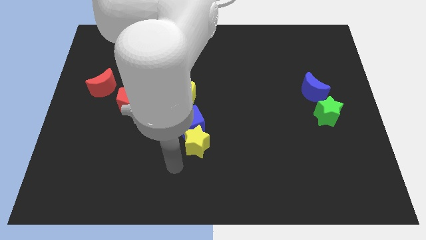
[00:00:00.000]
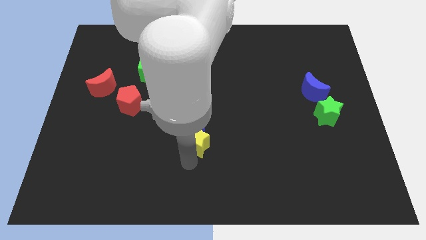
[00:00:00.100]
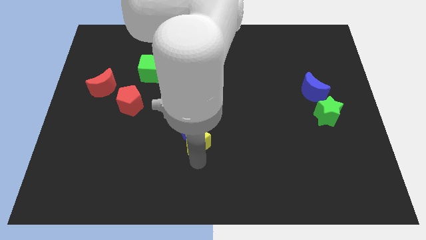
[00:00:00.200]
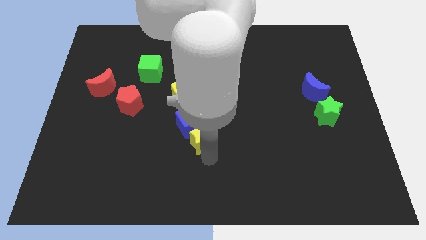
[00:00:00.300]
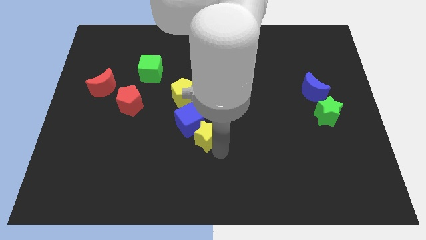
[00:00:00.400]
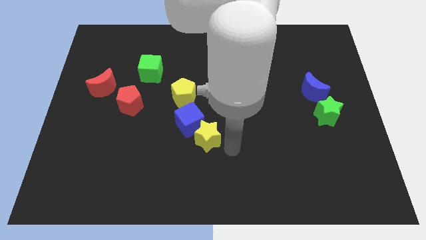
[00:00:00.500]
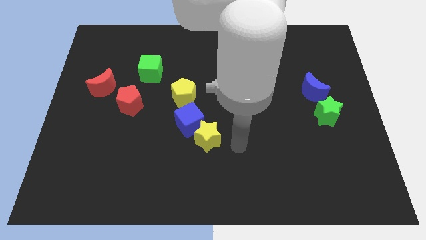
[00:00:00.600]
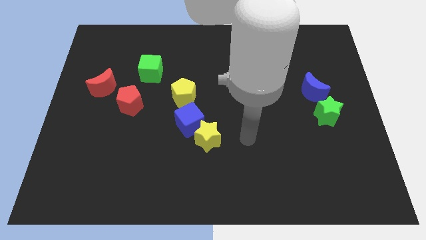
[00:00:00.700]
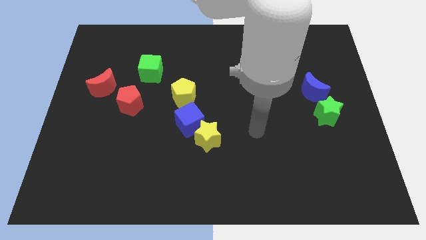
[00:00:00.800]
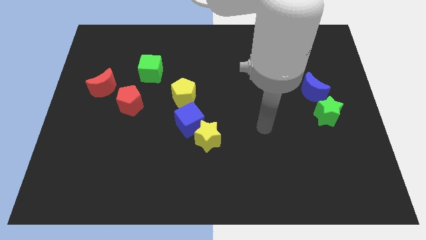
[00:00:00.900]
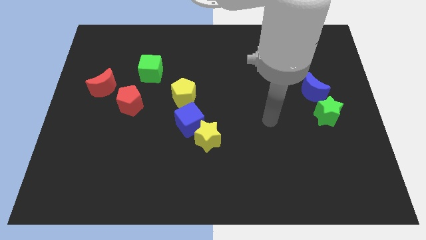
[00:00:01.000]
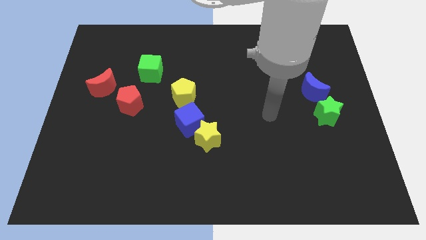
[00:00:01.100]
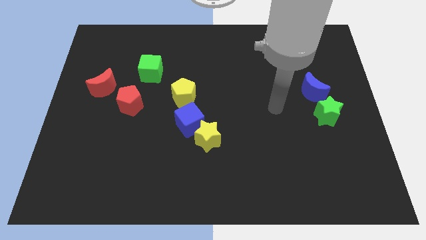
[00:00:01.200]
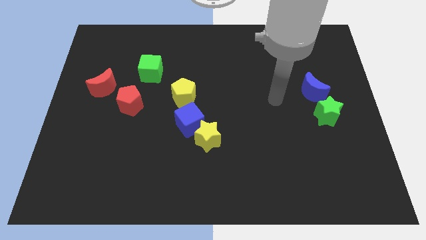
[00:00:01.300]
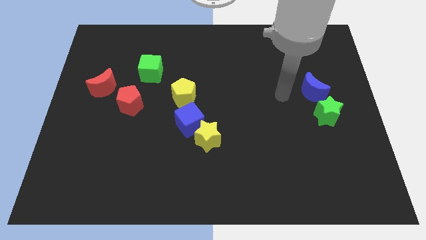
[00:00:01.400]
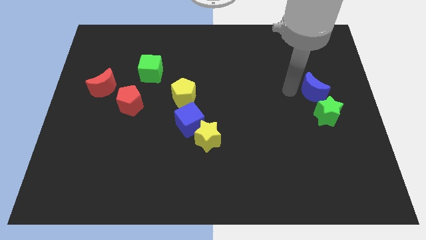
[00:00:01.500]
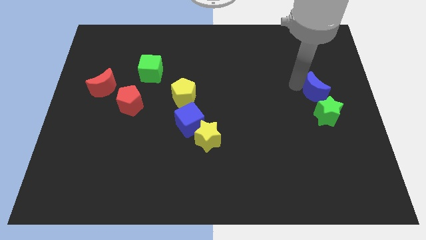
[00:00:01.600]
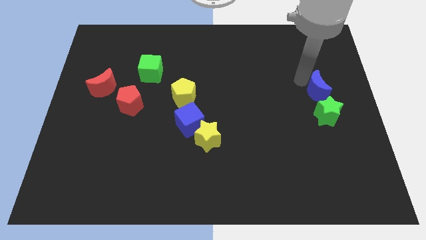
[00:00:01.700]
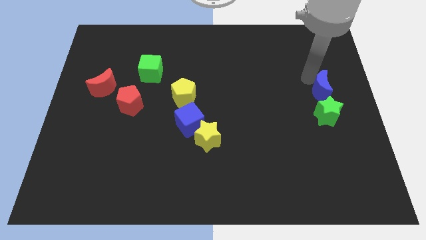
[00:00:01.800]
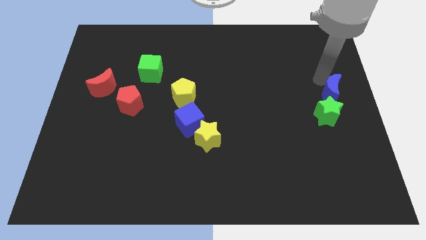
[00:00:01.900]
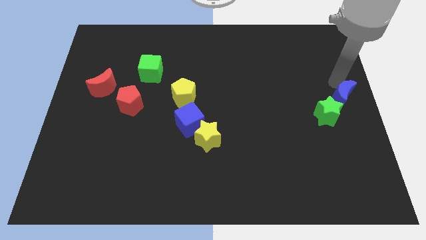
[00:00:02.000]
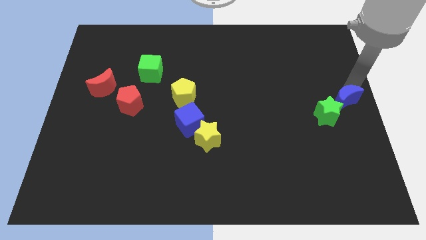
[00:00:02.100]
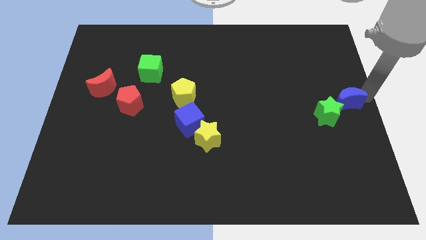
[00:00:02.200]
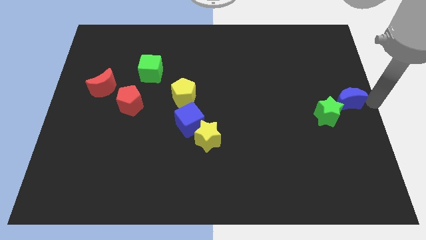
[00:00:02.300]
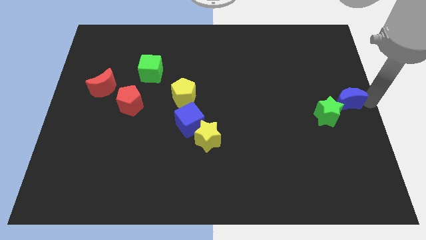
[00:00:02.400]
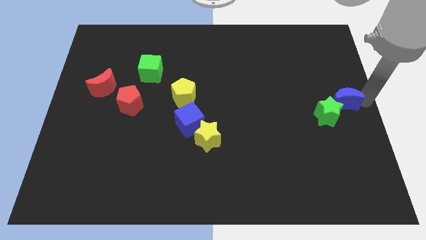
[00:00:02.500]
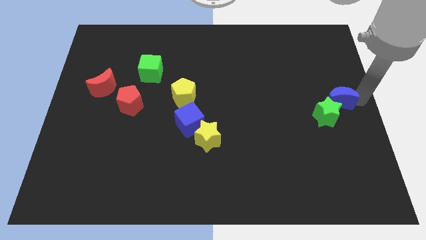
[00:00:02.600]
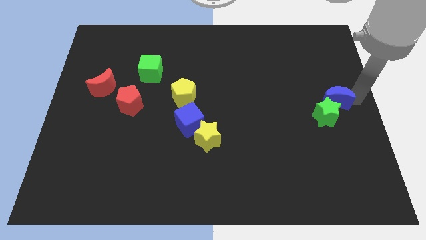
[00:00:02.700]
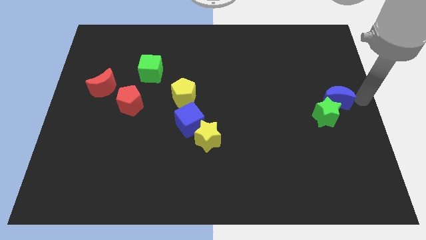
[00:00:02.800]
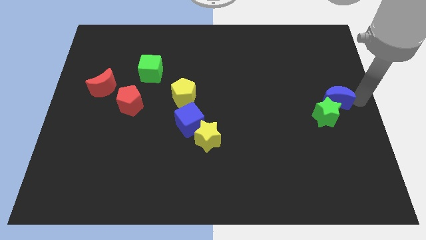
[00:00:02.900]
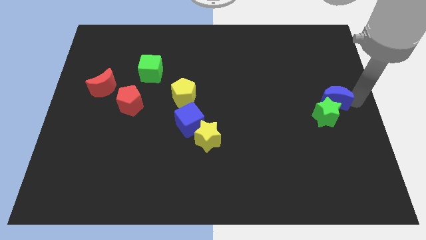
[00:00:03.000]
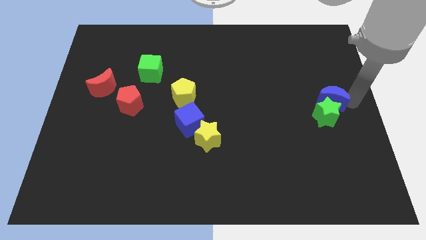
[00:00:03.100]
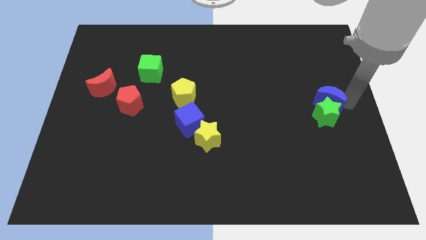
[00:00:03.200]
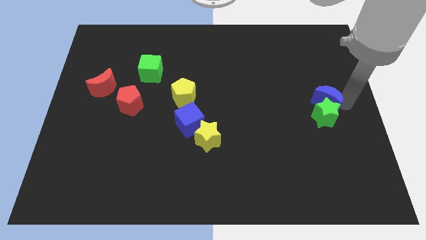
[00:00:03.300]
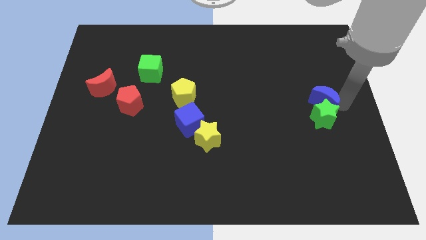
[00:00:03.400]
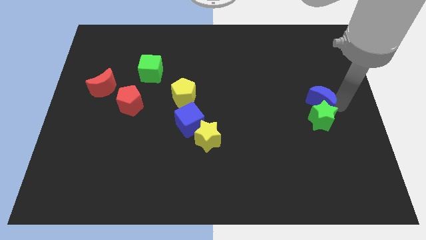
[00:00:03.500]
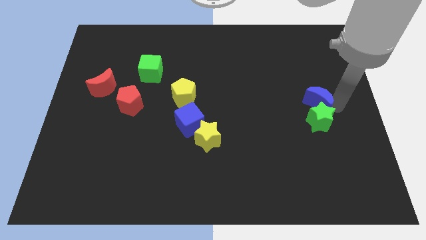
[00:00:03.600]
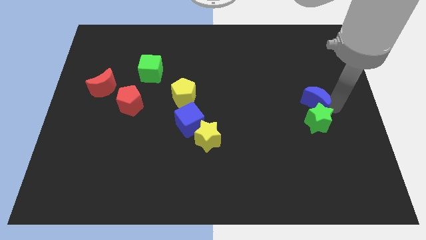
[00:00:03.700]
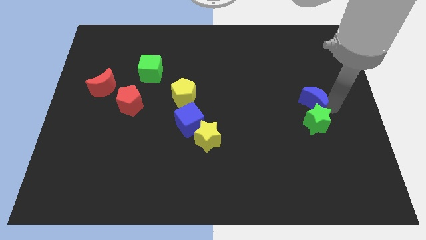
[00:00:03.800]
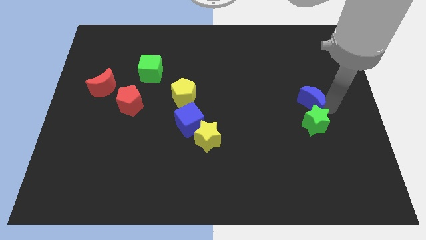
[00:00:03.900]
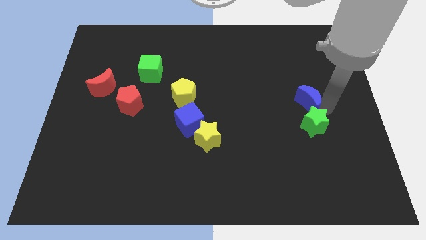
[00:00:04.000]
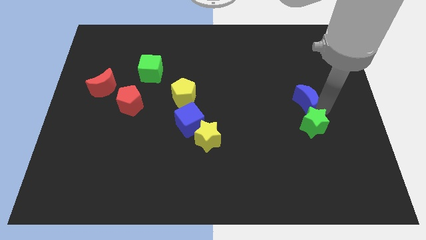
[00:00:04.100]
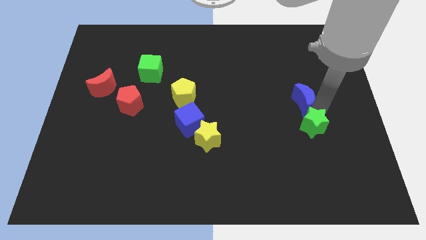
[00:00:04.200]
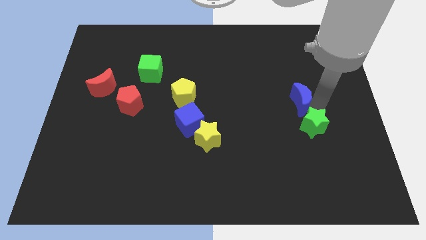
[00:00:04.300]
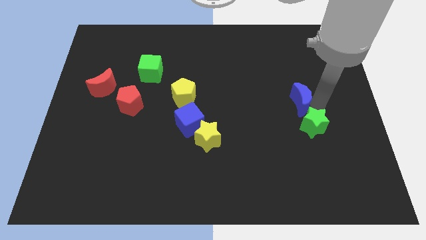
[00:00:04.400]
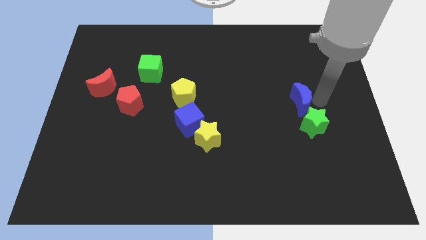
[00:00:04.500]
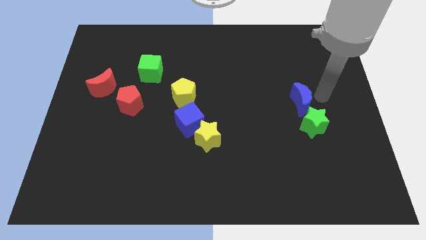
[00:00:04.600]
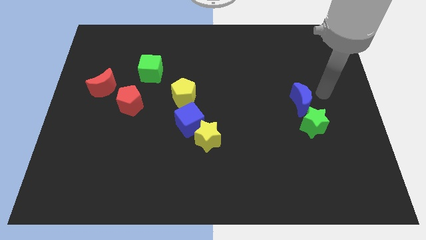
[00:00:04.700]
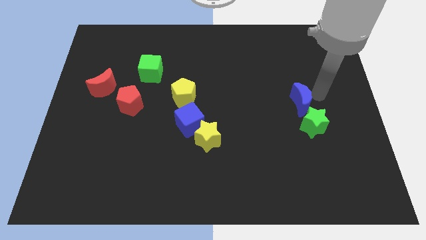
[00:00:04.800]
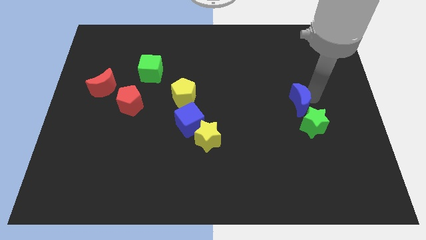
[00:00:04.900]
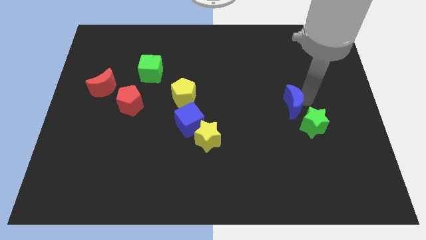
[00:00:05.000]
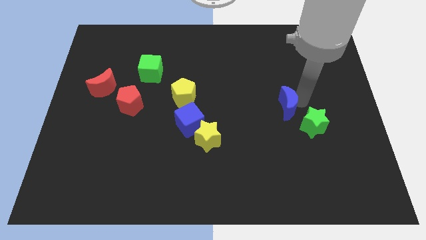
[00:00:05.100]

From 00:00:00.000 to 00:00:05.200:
slightly move the blue moon downwards and to the left

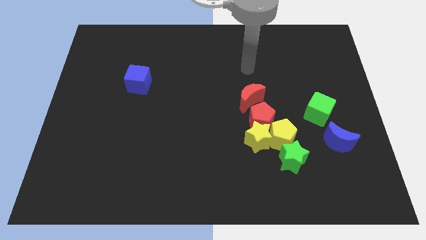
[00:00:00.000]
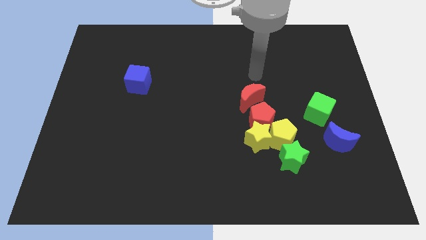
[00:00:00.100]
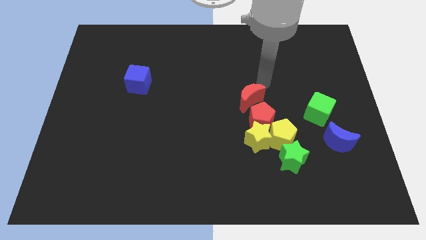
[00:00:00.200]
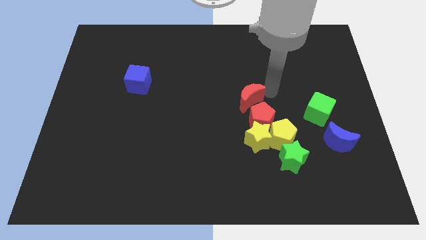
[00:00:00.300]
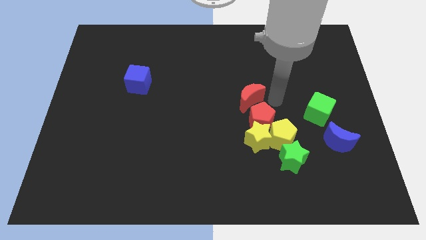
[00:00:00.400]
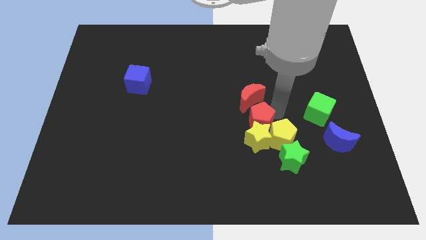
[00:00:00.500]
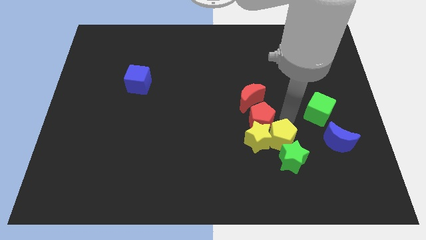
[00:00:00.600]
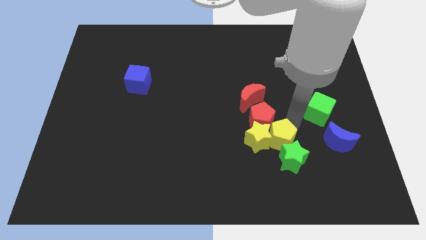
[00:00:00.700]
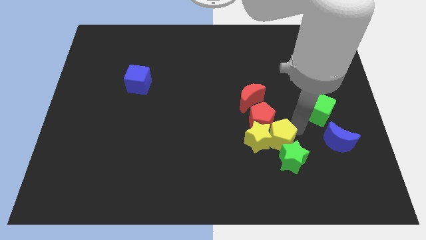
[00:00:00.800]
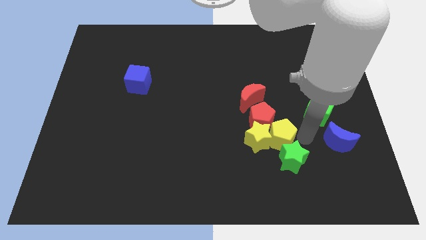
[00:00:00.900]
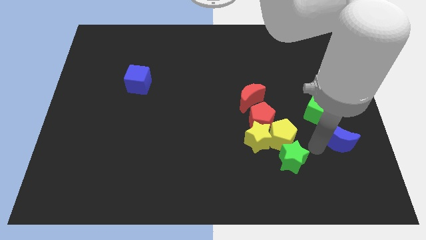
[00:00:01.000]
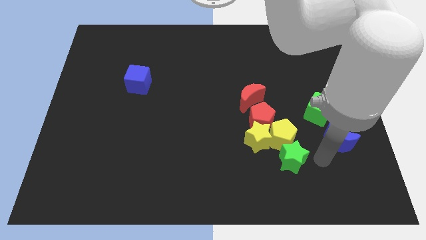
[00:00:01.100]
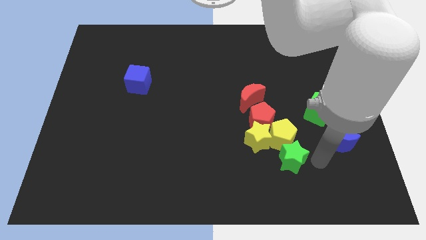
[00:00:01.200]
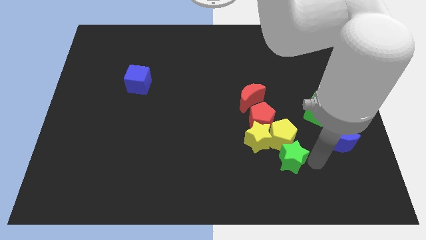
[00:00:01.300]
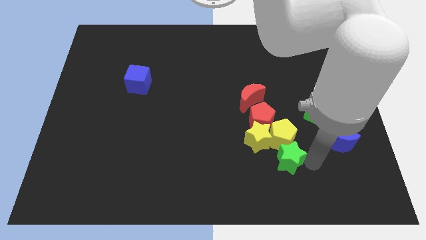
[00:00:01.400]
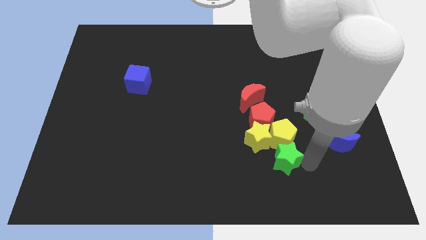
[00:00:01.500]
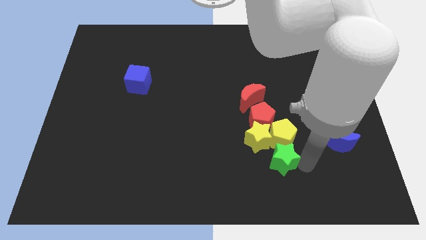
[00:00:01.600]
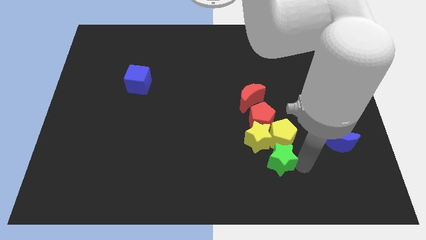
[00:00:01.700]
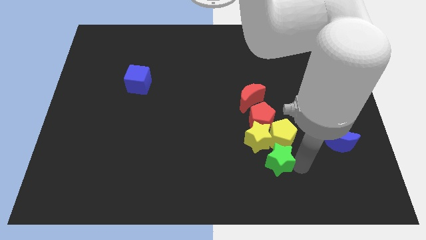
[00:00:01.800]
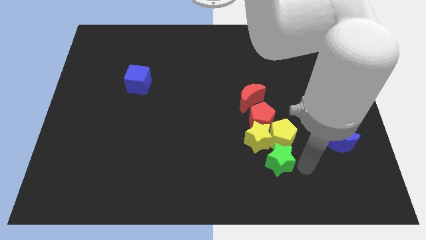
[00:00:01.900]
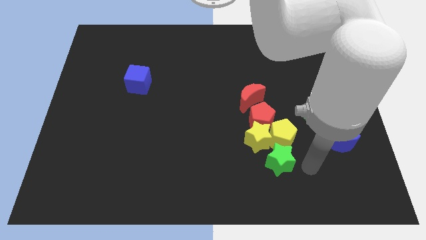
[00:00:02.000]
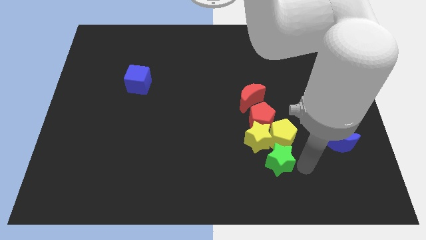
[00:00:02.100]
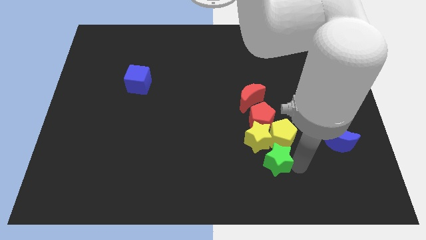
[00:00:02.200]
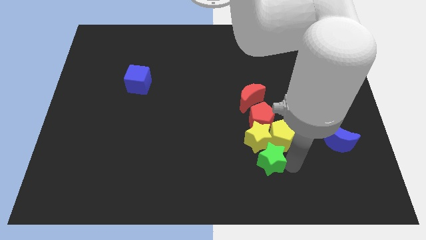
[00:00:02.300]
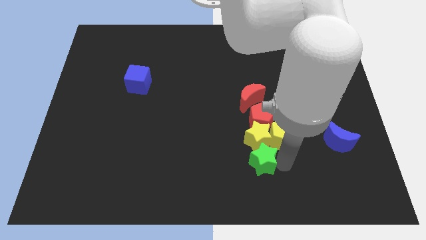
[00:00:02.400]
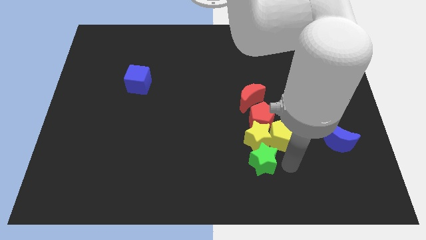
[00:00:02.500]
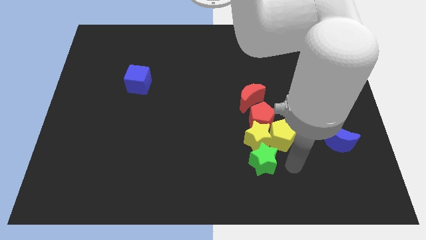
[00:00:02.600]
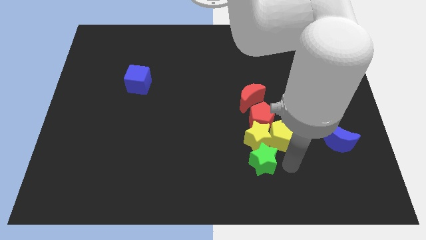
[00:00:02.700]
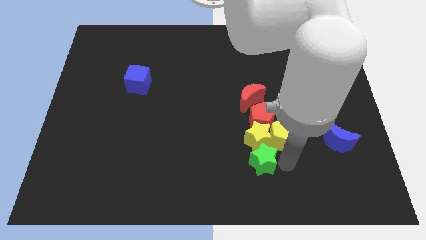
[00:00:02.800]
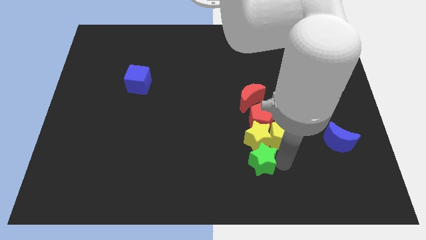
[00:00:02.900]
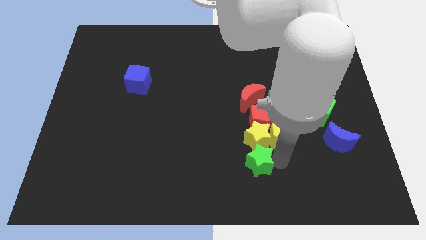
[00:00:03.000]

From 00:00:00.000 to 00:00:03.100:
push the green star to the left a little bit
